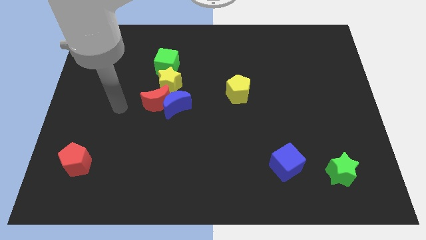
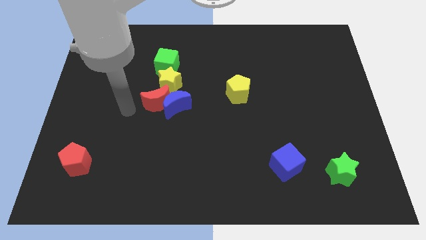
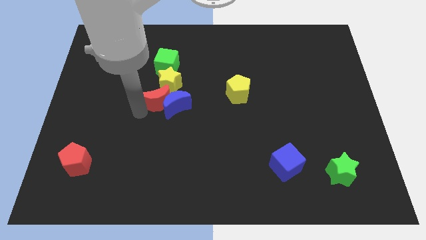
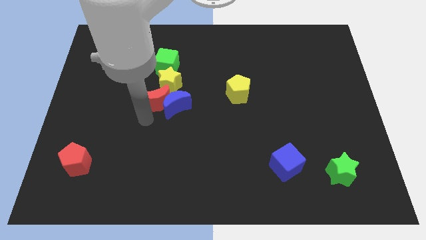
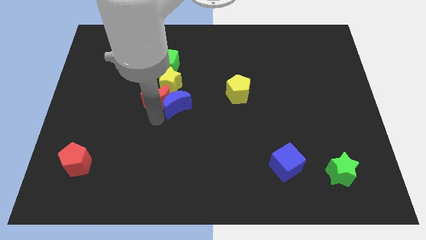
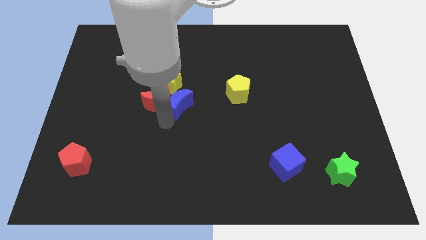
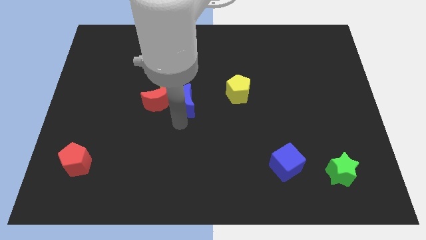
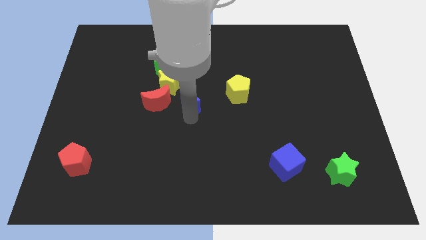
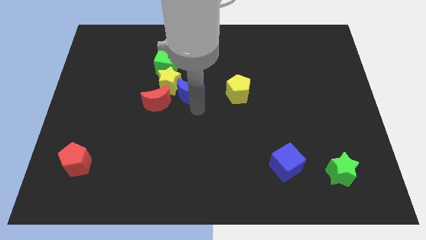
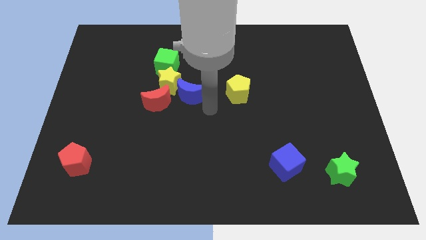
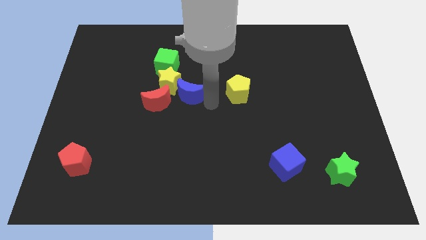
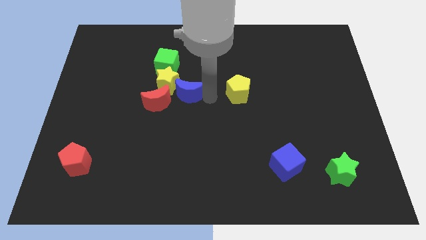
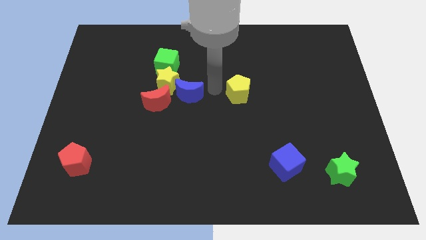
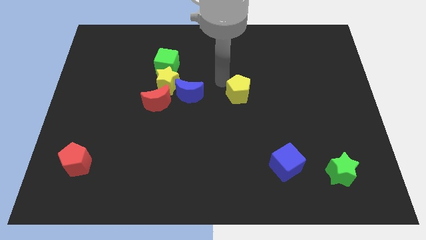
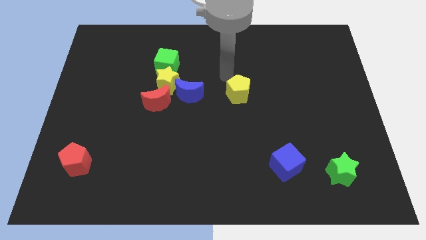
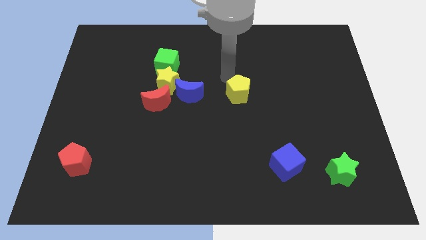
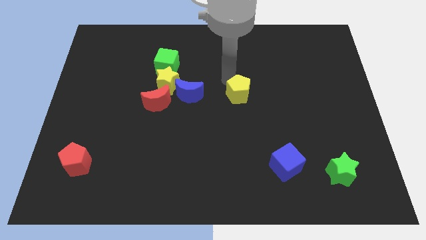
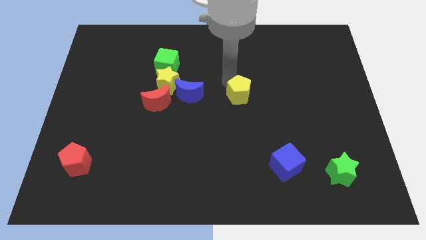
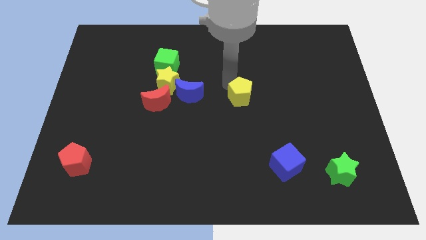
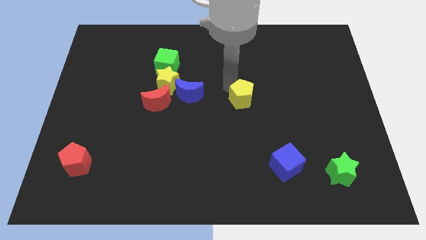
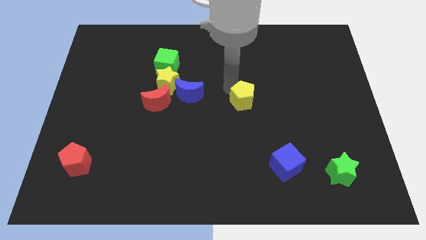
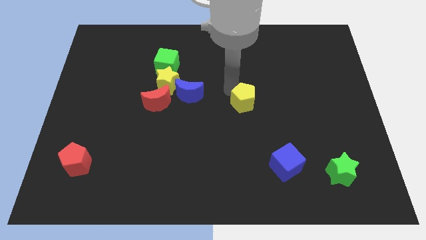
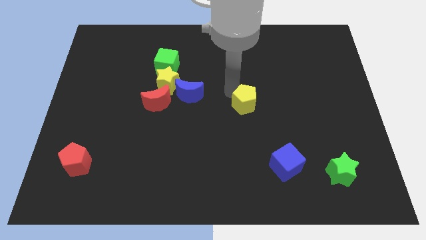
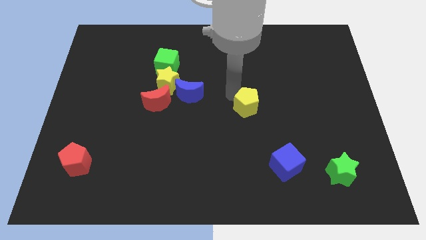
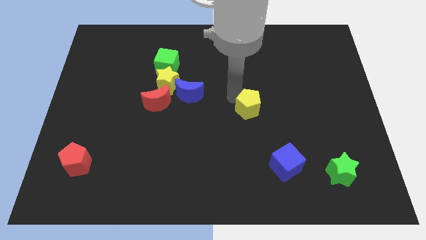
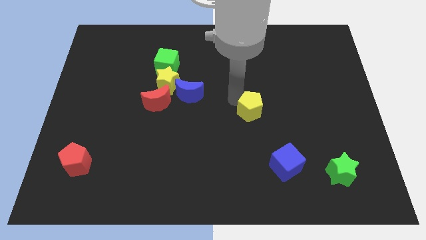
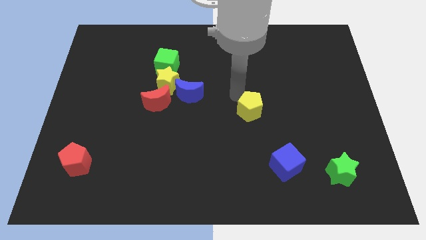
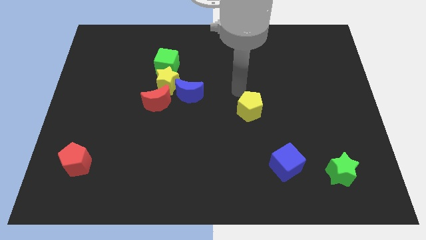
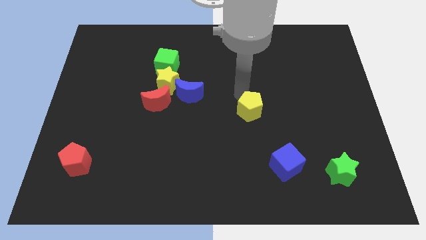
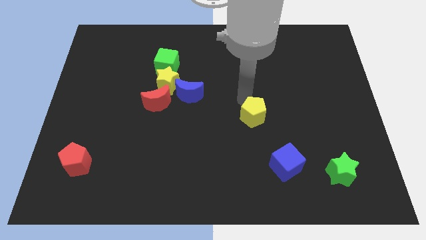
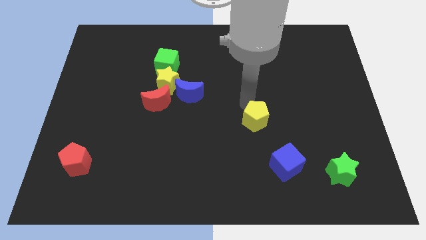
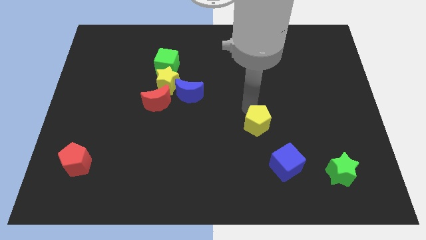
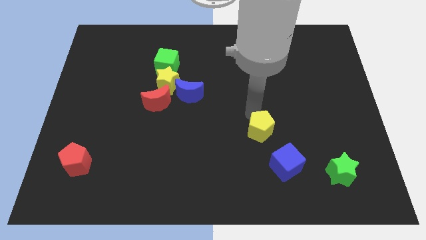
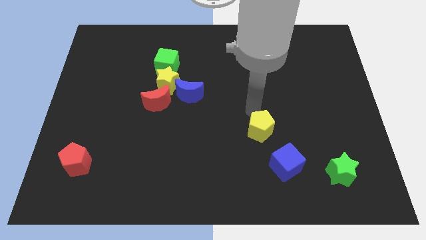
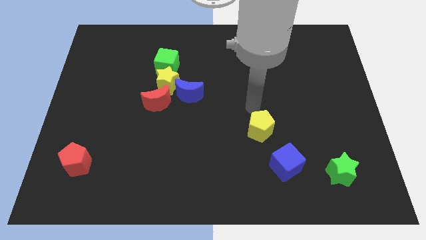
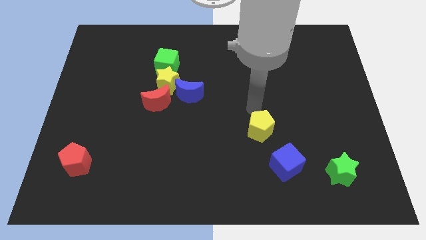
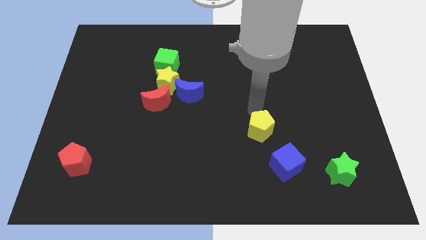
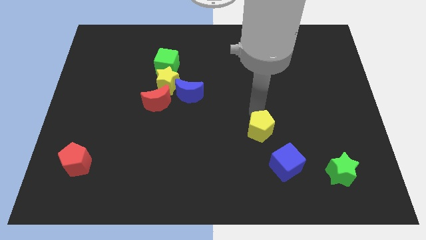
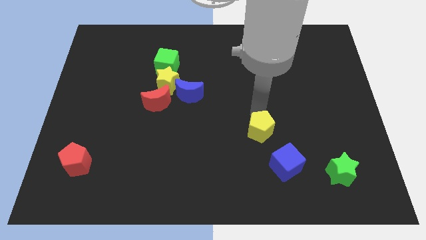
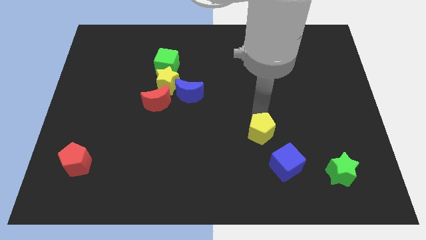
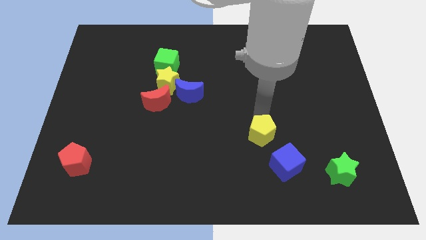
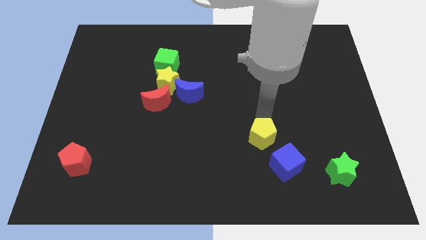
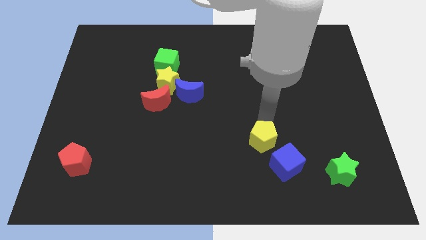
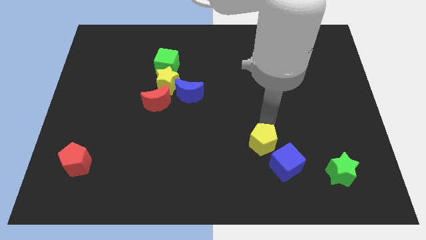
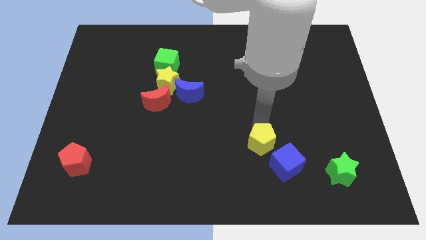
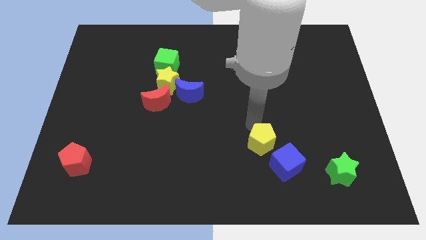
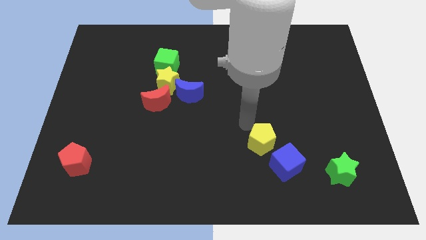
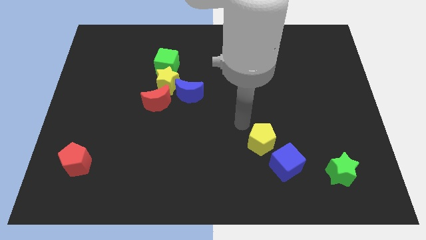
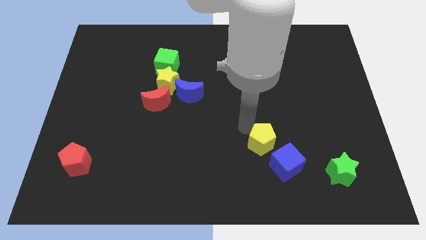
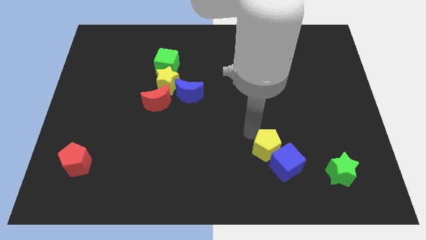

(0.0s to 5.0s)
move the yellow pentagon towards the blue cube

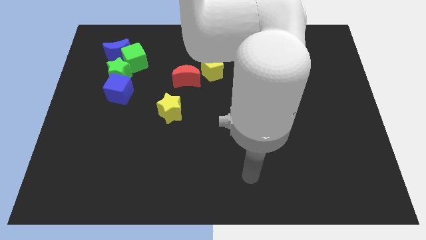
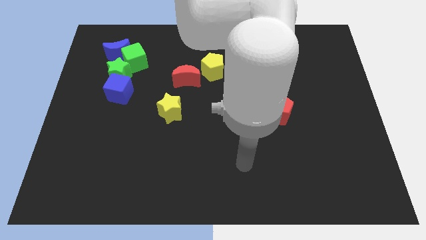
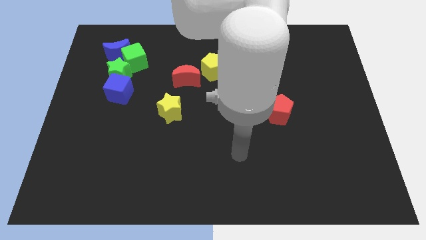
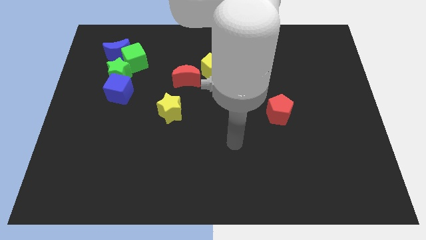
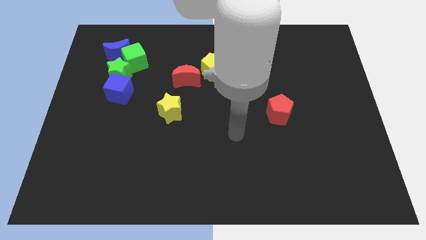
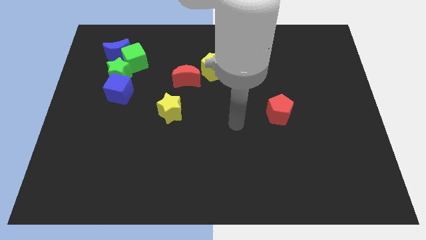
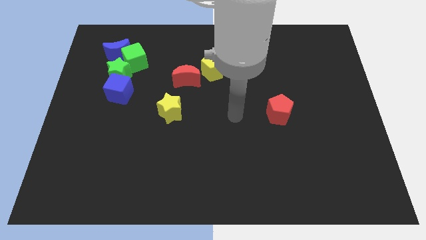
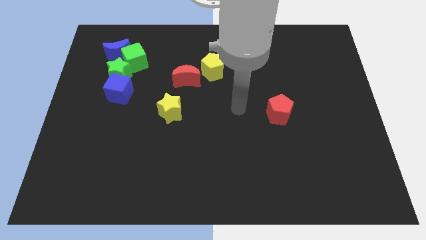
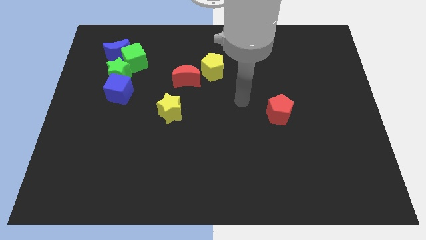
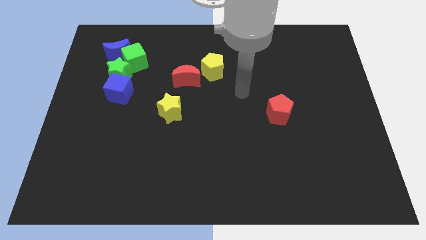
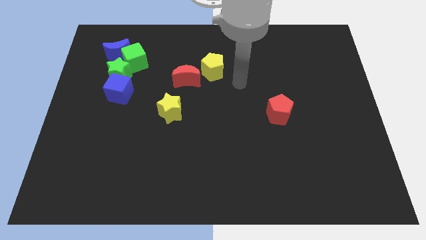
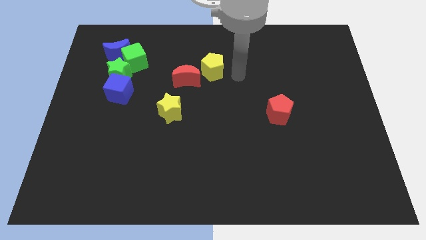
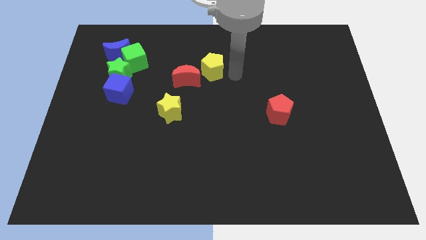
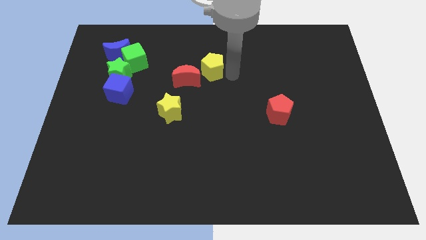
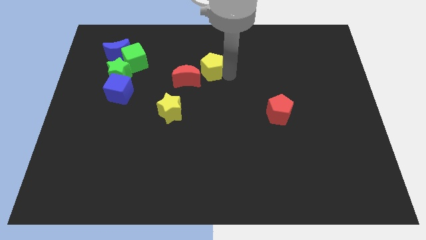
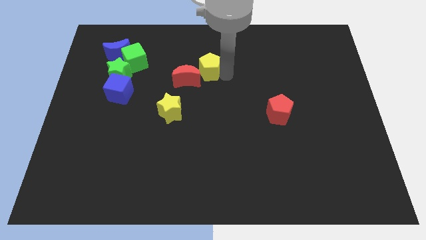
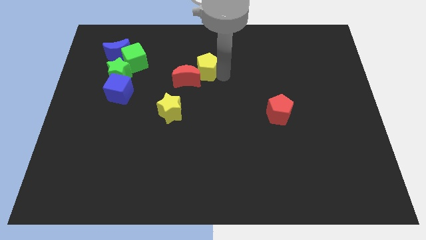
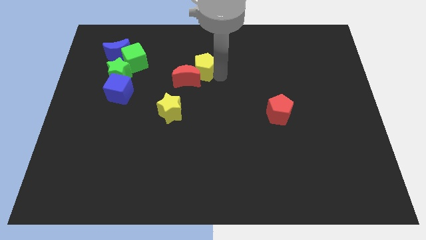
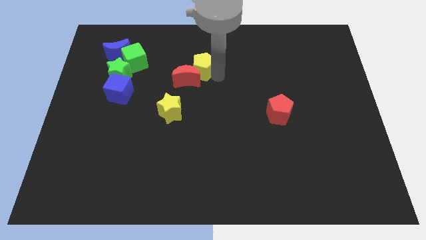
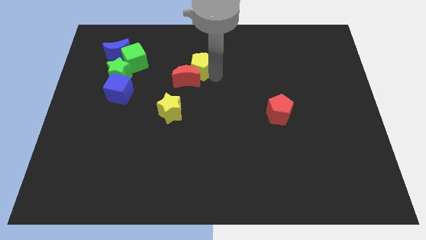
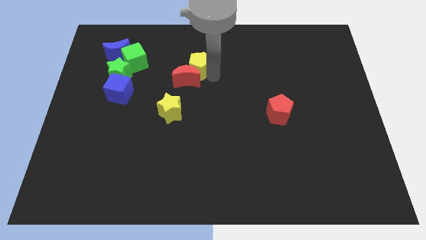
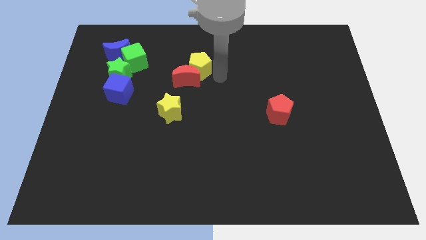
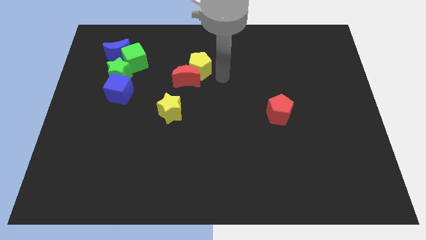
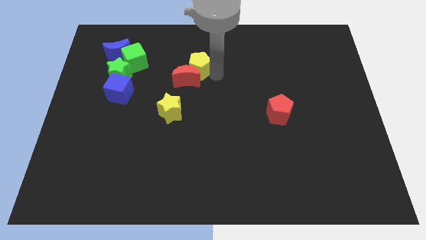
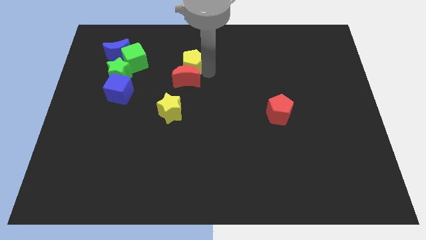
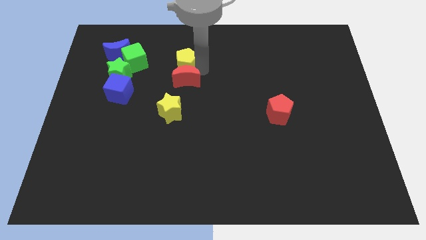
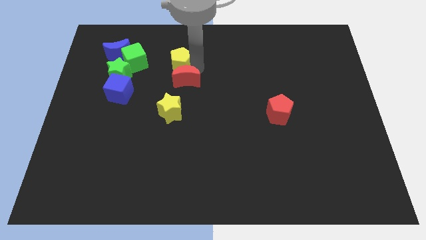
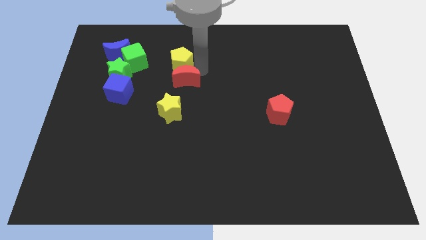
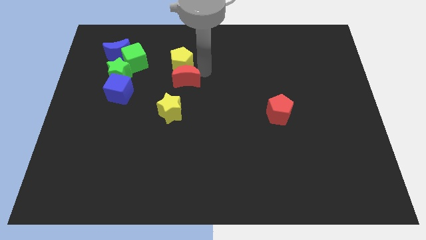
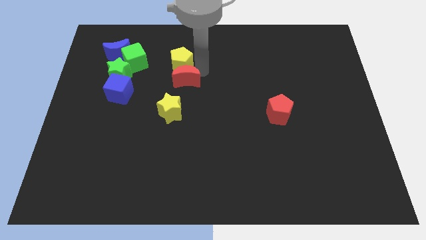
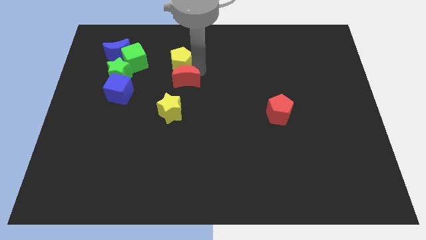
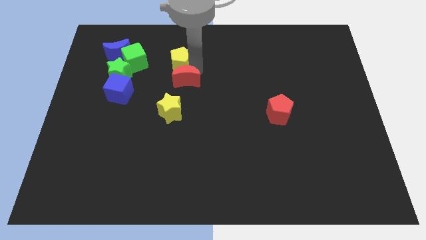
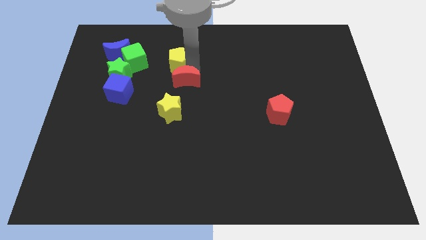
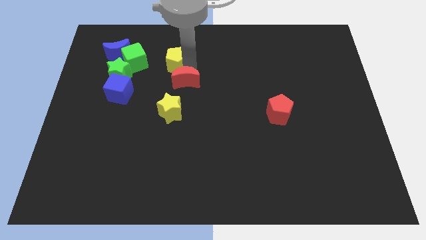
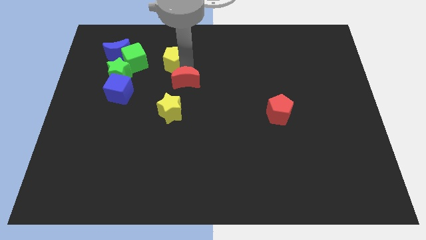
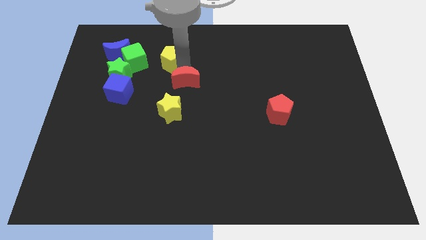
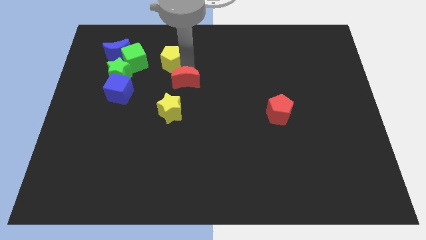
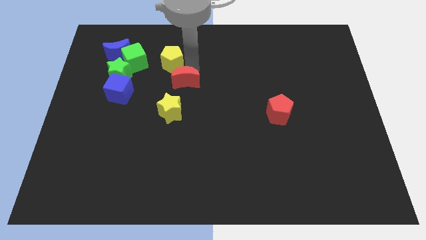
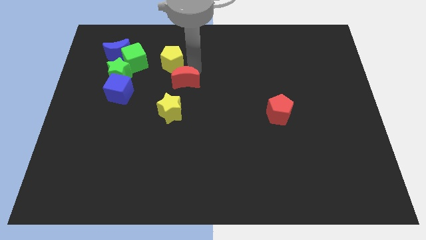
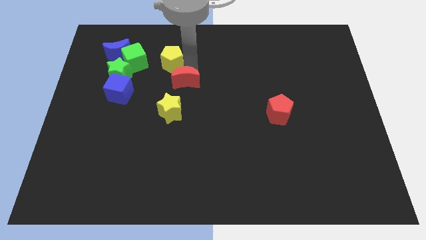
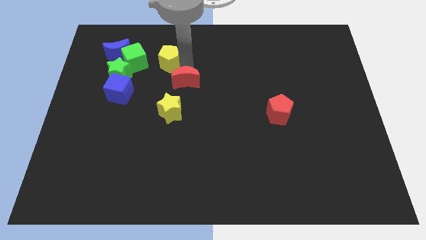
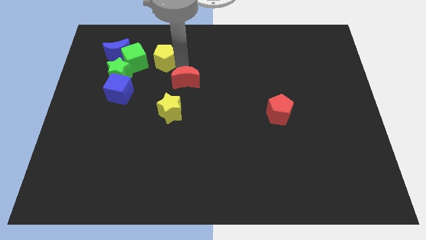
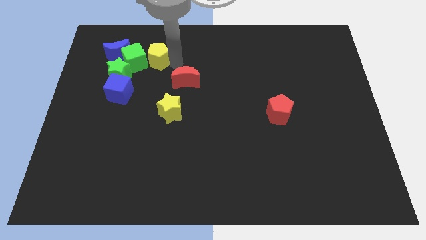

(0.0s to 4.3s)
put the yellow pentagon towards the green cube
